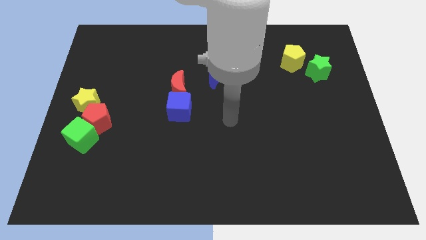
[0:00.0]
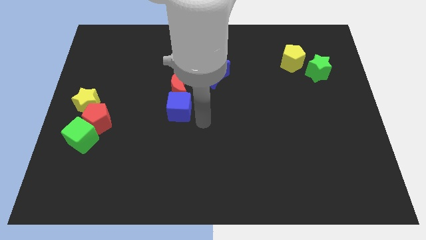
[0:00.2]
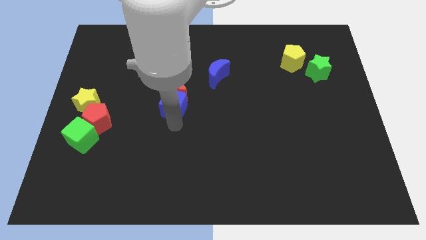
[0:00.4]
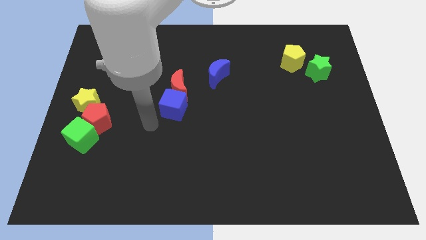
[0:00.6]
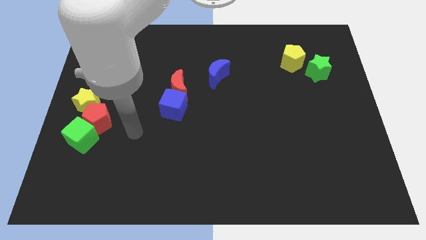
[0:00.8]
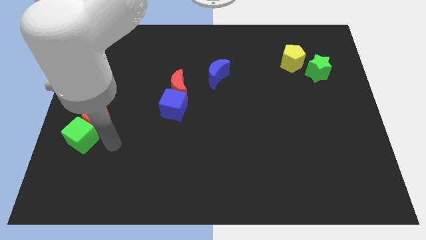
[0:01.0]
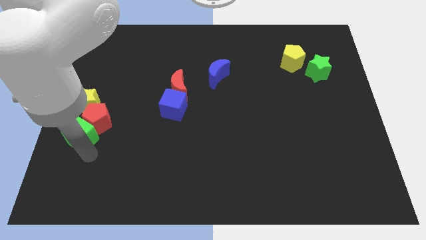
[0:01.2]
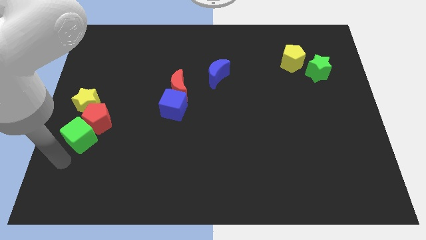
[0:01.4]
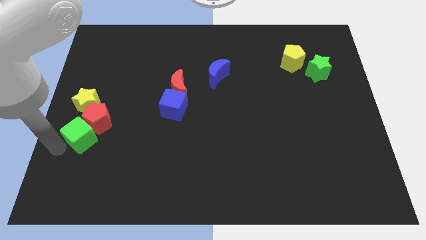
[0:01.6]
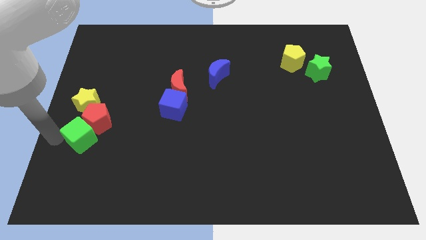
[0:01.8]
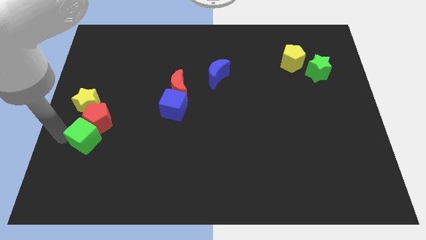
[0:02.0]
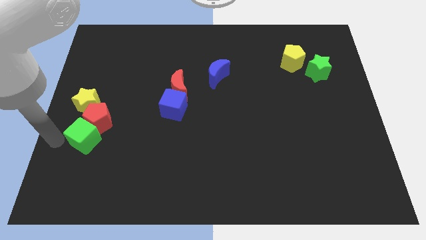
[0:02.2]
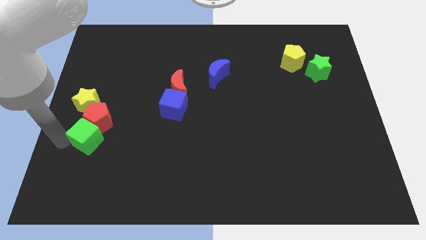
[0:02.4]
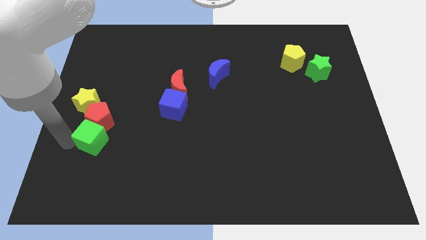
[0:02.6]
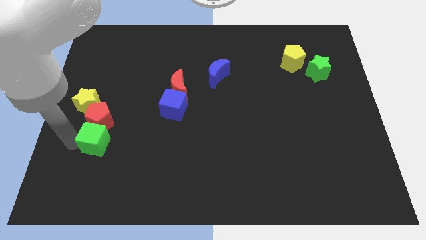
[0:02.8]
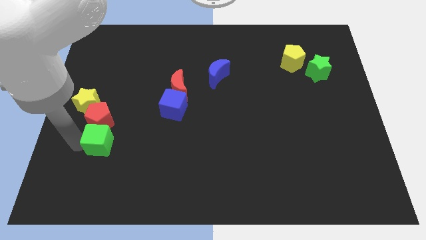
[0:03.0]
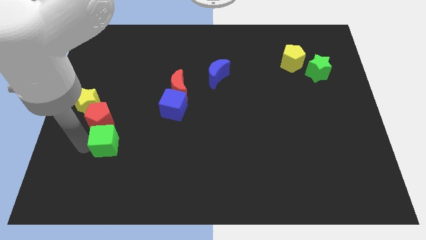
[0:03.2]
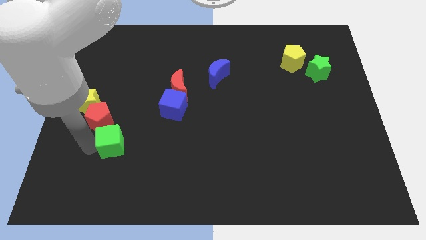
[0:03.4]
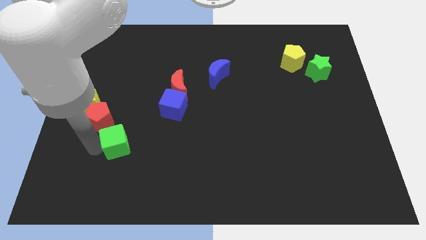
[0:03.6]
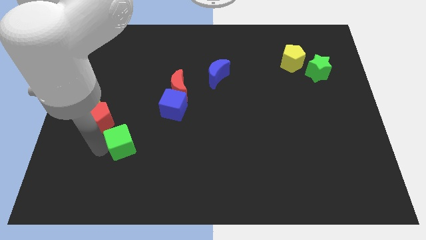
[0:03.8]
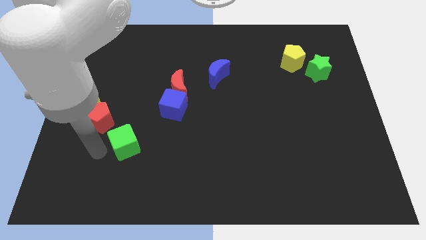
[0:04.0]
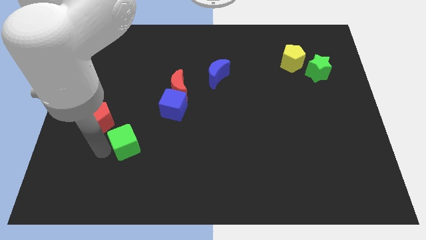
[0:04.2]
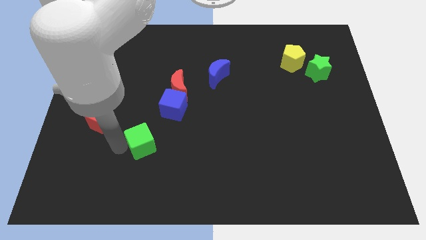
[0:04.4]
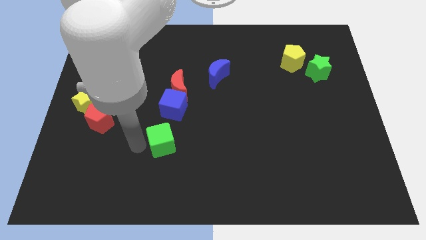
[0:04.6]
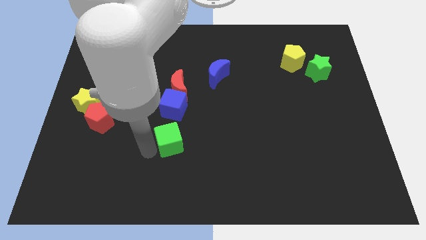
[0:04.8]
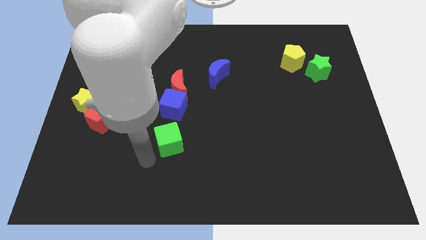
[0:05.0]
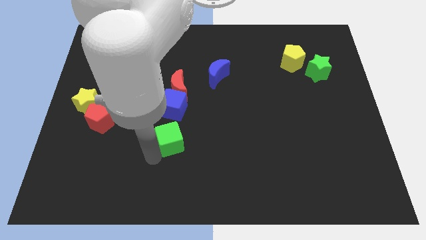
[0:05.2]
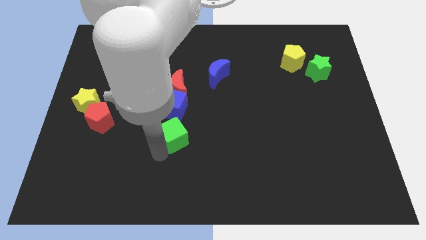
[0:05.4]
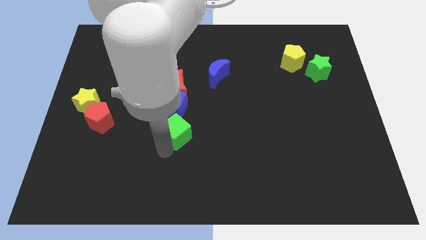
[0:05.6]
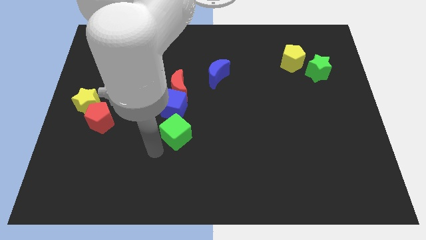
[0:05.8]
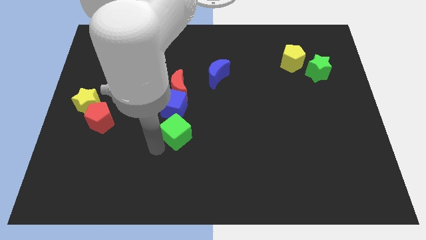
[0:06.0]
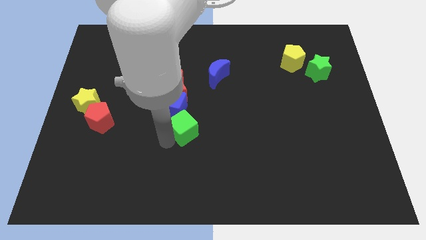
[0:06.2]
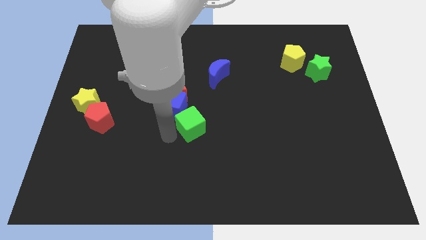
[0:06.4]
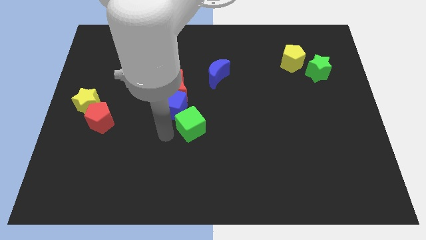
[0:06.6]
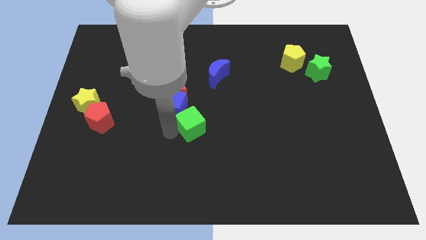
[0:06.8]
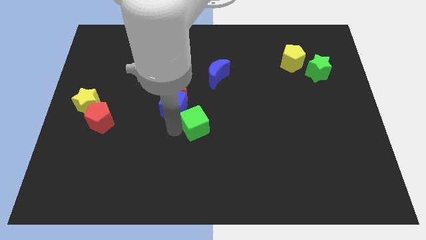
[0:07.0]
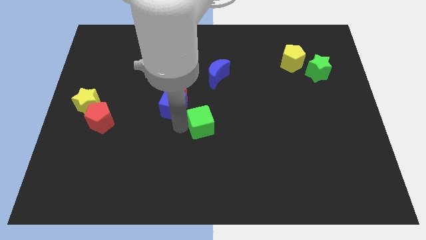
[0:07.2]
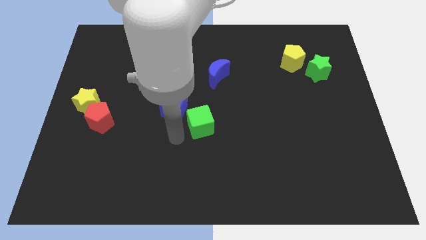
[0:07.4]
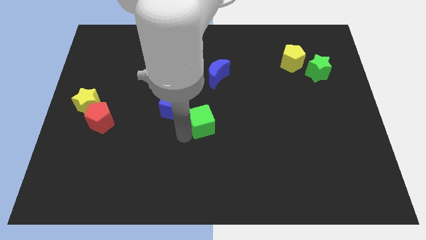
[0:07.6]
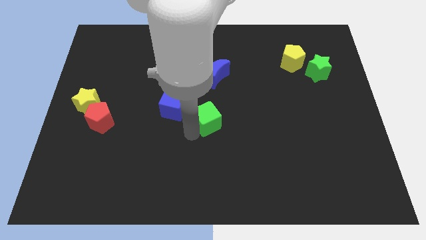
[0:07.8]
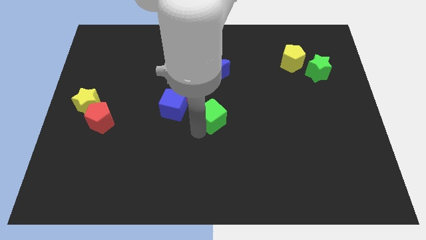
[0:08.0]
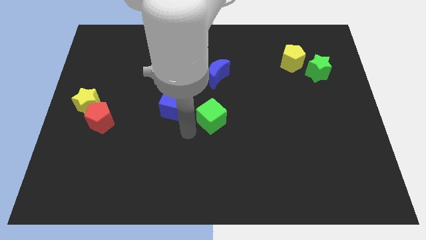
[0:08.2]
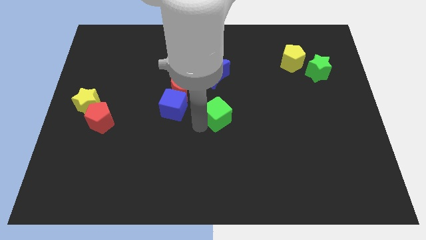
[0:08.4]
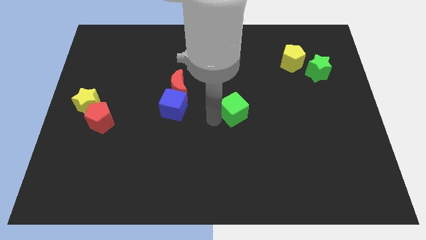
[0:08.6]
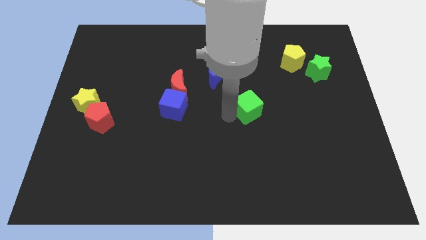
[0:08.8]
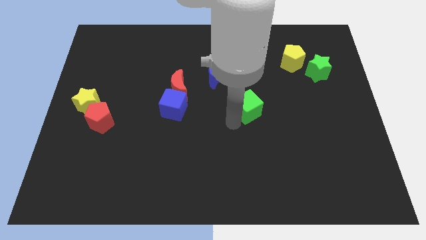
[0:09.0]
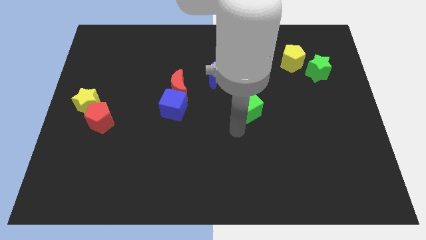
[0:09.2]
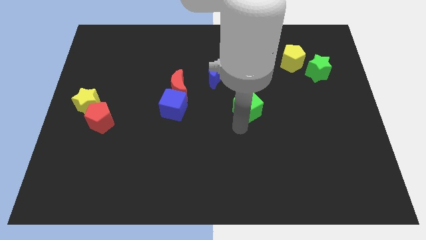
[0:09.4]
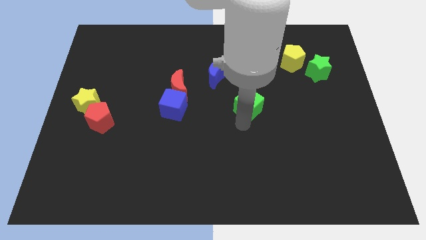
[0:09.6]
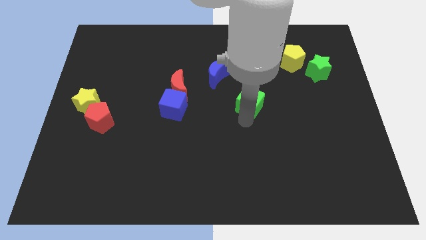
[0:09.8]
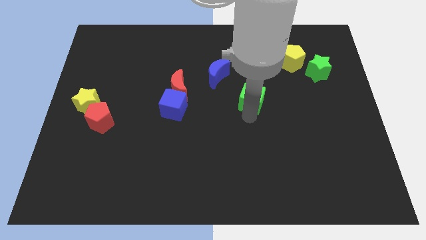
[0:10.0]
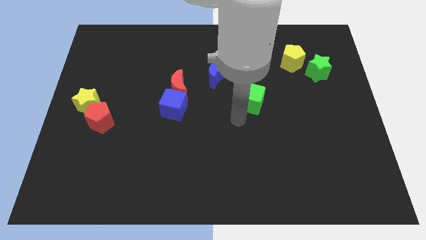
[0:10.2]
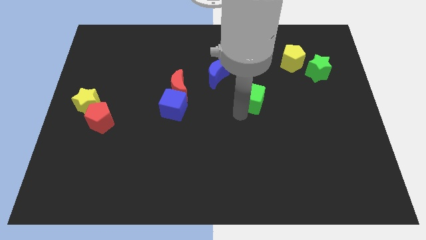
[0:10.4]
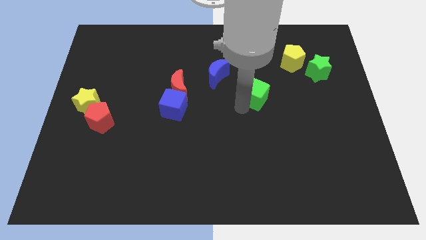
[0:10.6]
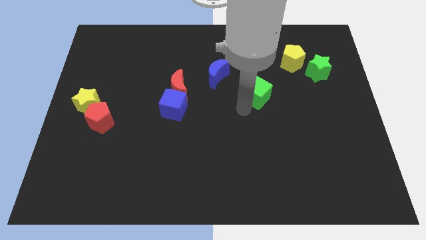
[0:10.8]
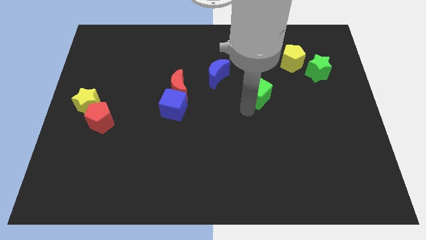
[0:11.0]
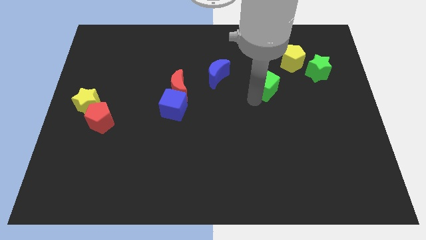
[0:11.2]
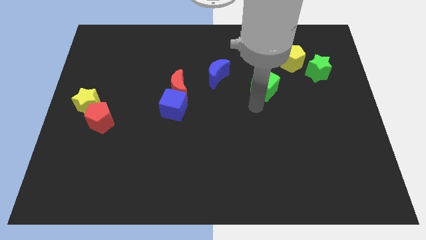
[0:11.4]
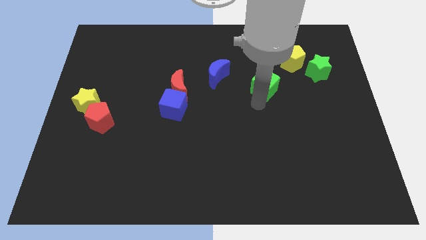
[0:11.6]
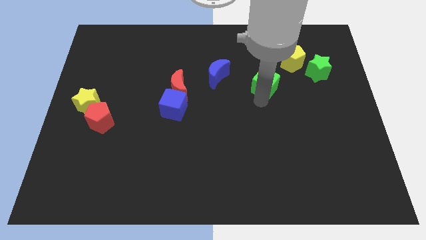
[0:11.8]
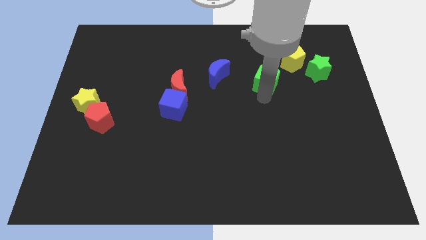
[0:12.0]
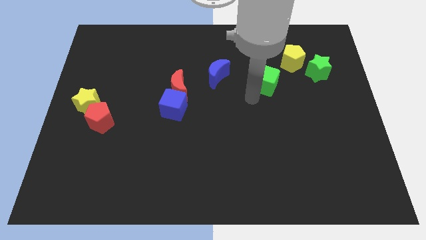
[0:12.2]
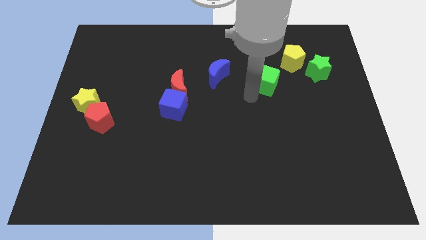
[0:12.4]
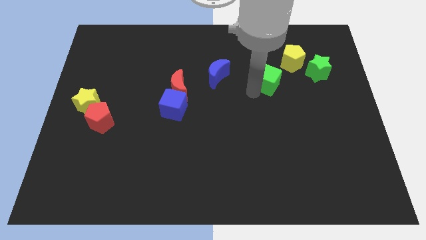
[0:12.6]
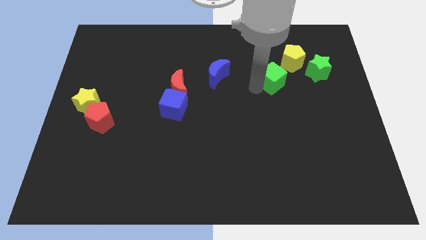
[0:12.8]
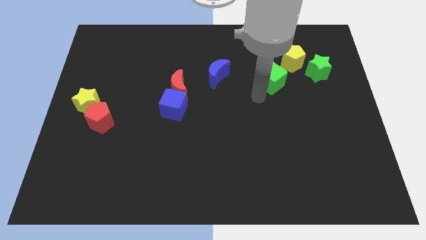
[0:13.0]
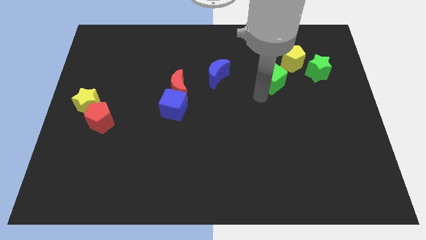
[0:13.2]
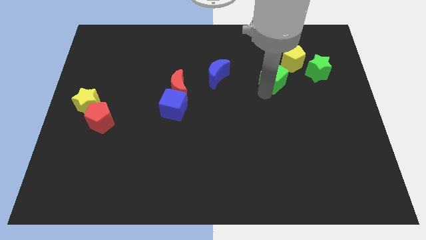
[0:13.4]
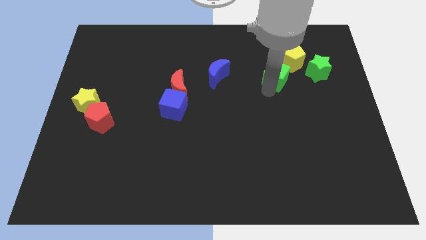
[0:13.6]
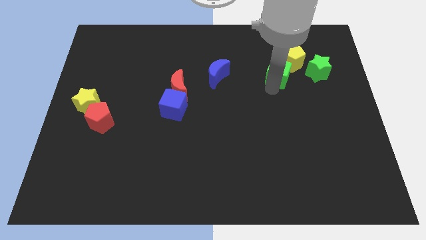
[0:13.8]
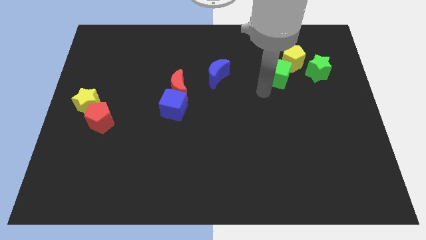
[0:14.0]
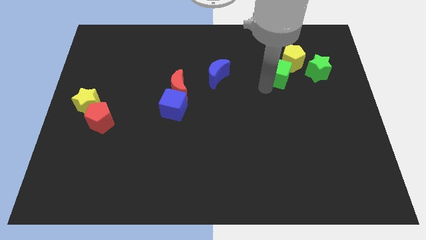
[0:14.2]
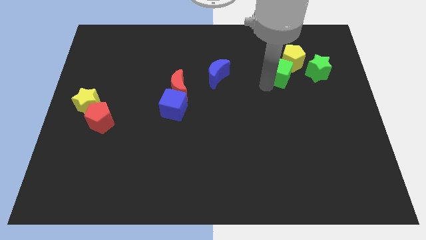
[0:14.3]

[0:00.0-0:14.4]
push the green cube to the yellow pentagon

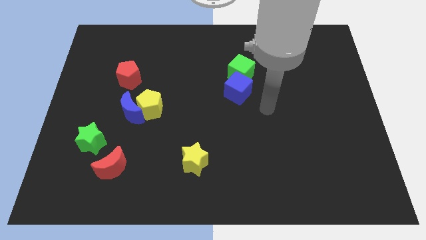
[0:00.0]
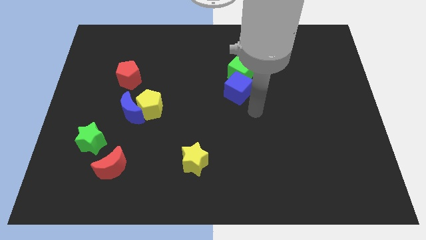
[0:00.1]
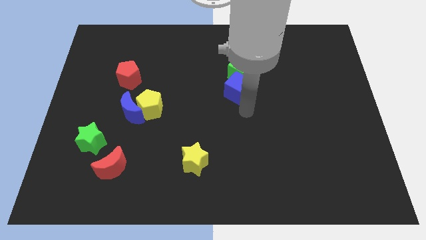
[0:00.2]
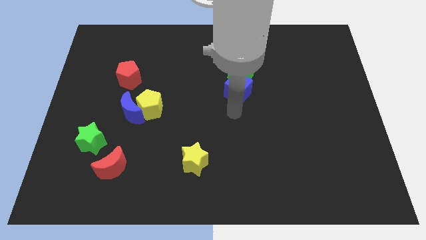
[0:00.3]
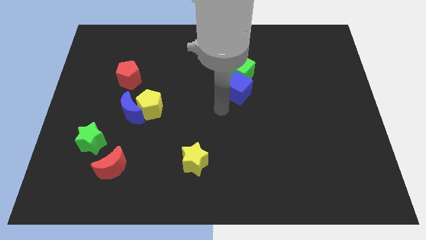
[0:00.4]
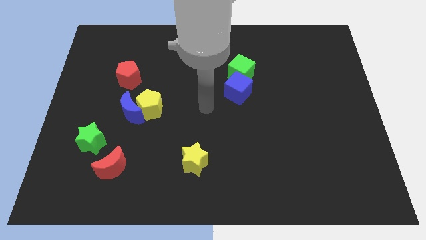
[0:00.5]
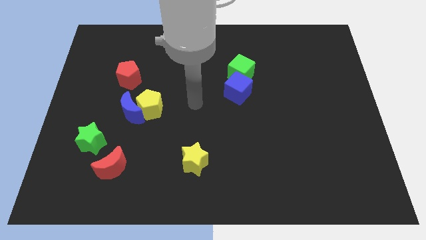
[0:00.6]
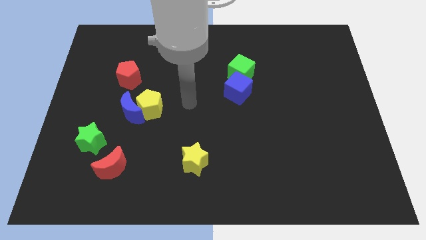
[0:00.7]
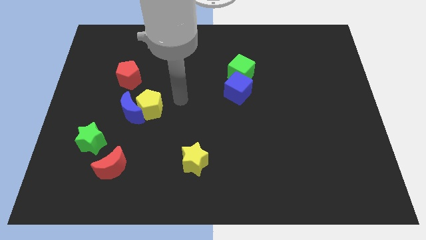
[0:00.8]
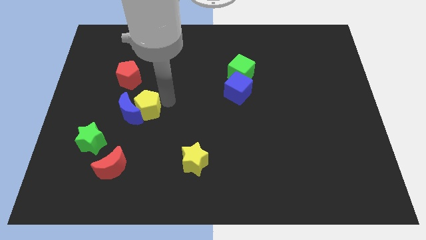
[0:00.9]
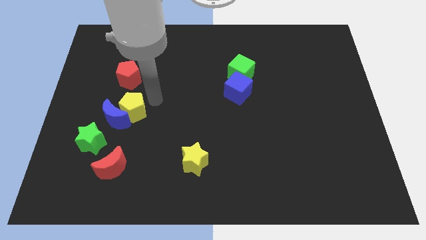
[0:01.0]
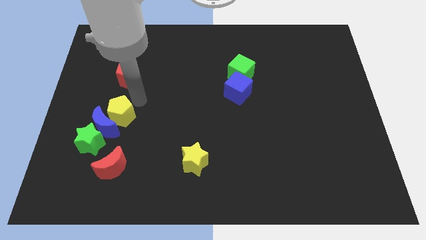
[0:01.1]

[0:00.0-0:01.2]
slide the blue moon to the green star
